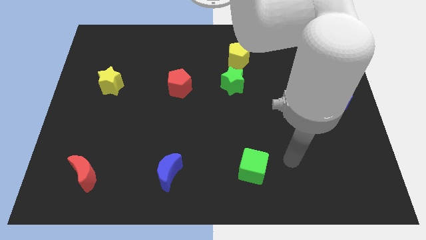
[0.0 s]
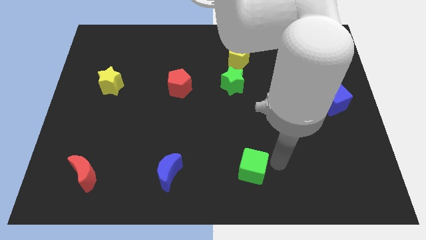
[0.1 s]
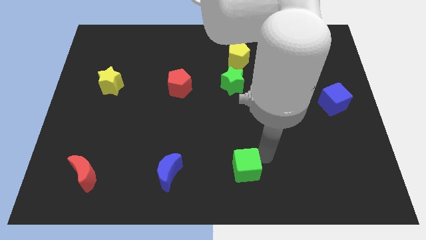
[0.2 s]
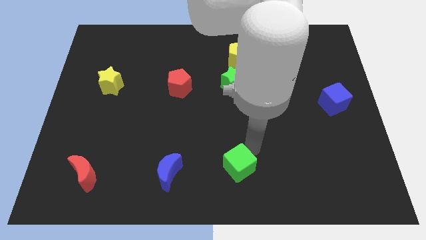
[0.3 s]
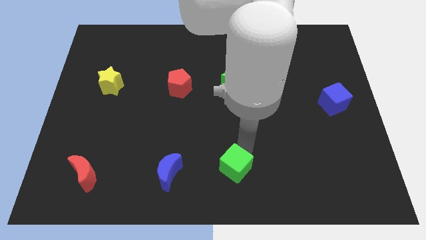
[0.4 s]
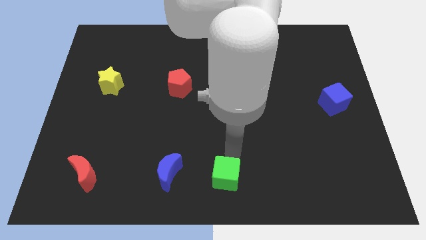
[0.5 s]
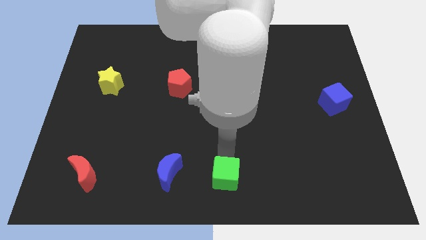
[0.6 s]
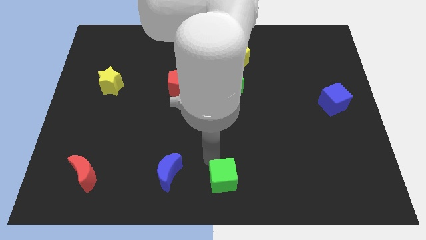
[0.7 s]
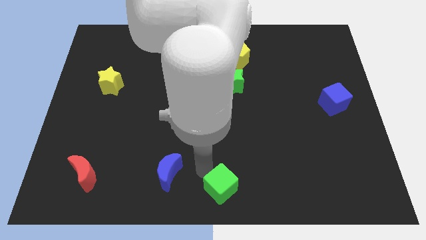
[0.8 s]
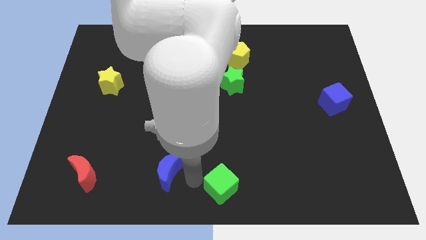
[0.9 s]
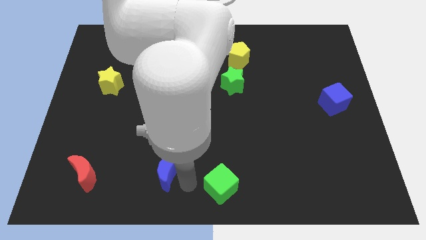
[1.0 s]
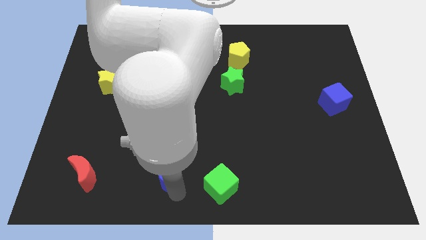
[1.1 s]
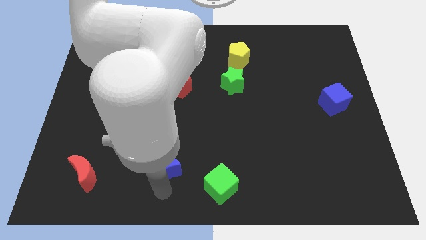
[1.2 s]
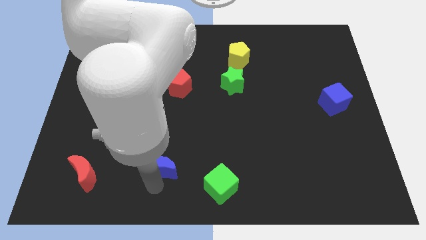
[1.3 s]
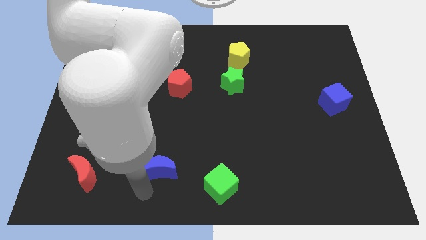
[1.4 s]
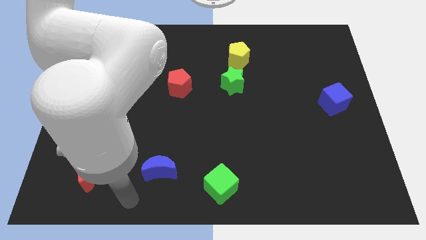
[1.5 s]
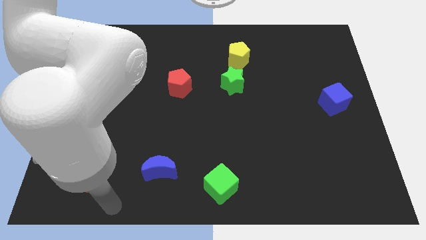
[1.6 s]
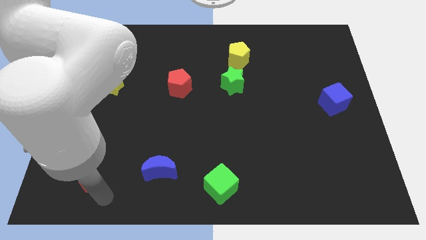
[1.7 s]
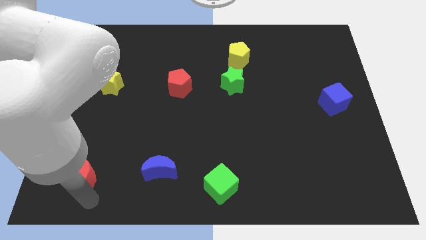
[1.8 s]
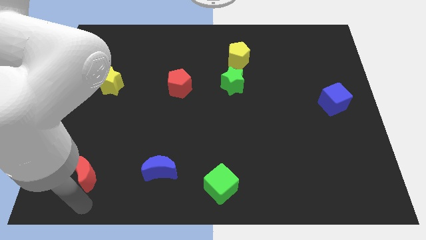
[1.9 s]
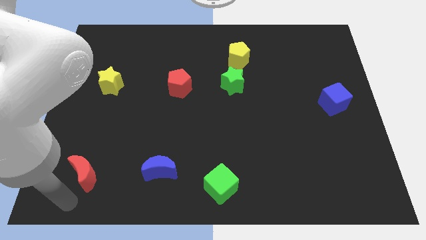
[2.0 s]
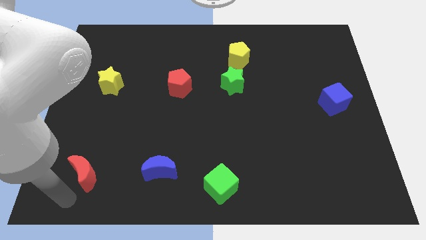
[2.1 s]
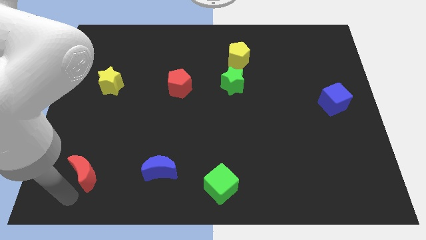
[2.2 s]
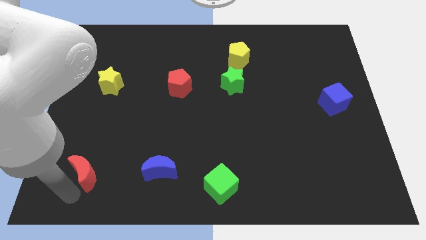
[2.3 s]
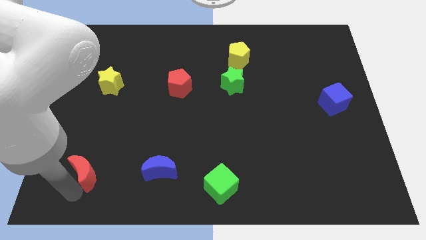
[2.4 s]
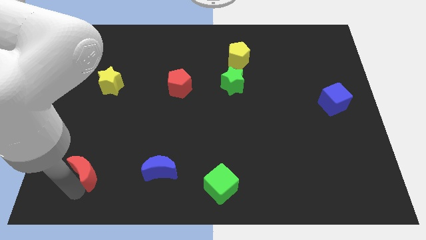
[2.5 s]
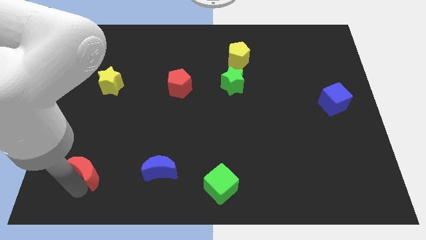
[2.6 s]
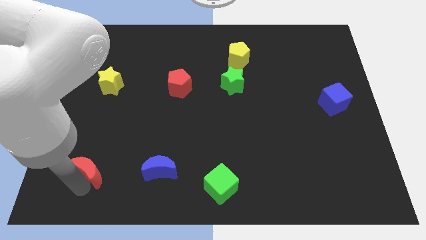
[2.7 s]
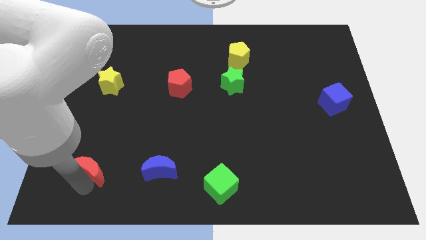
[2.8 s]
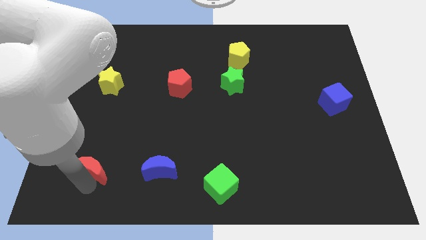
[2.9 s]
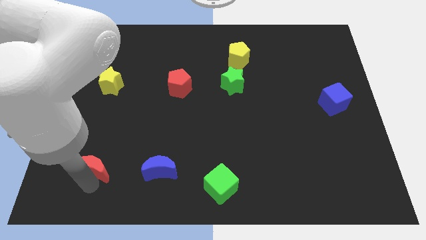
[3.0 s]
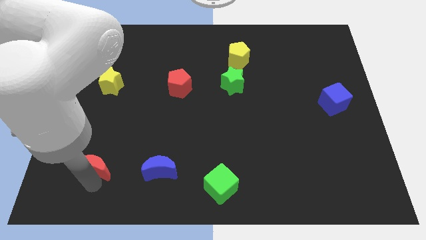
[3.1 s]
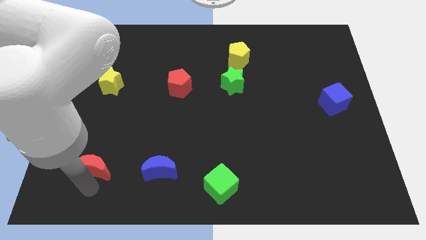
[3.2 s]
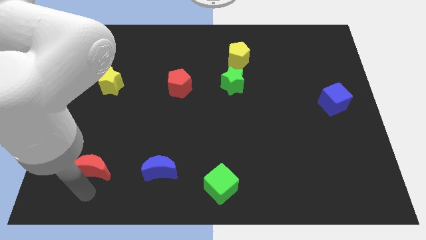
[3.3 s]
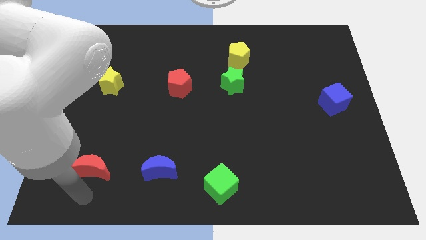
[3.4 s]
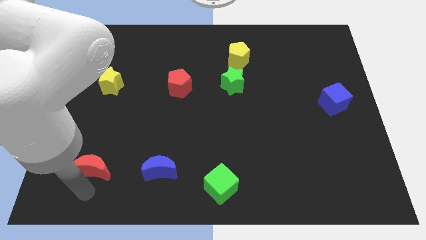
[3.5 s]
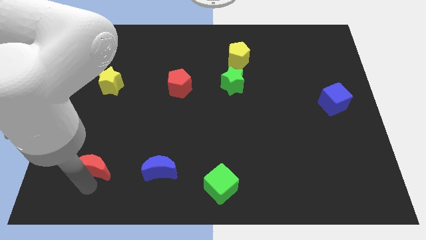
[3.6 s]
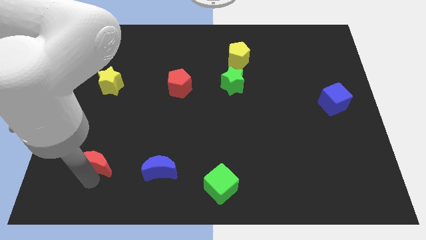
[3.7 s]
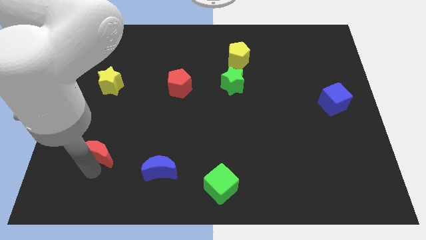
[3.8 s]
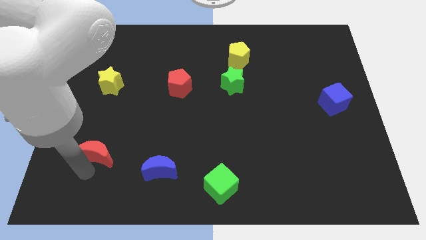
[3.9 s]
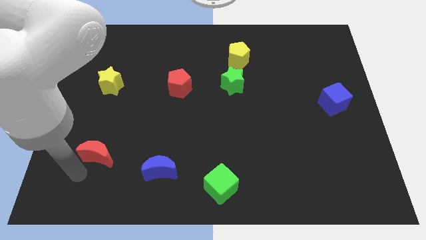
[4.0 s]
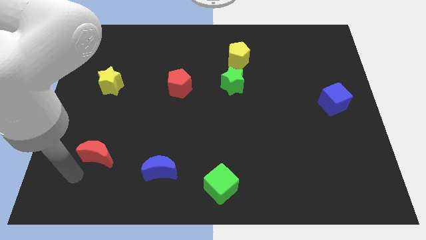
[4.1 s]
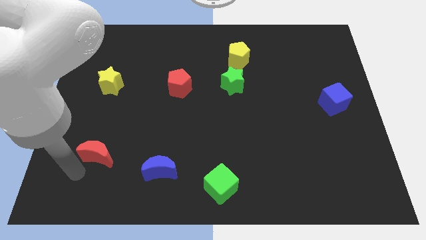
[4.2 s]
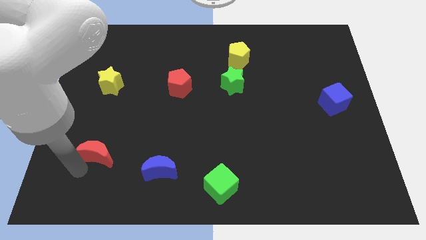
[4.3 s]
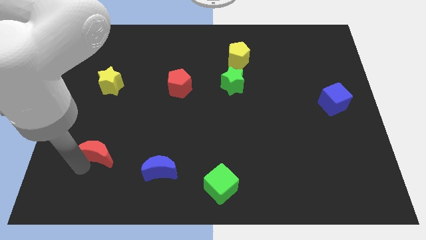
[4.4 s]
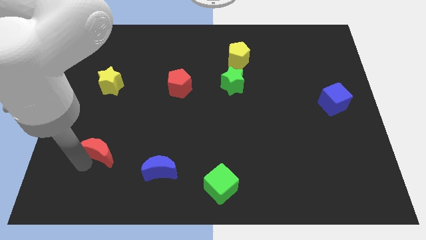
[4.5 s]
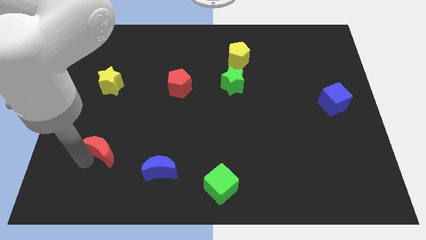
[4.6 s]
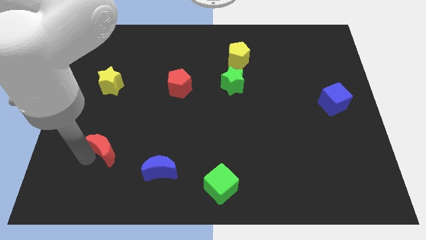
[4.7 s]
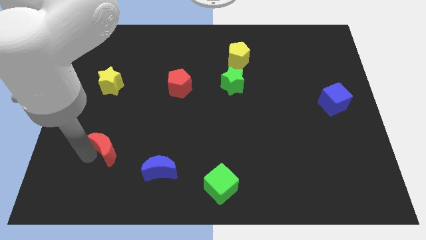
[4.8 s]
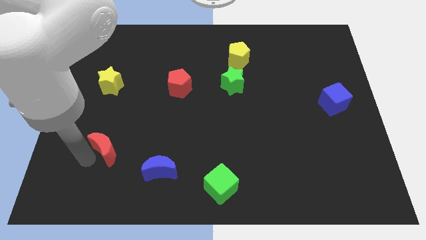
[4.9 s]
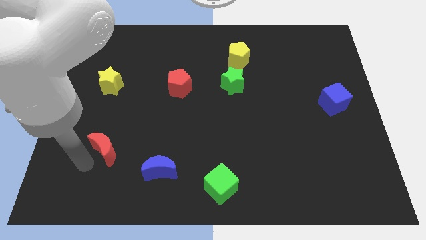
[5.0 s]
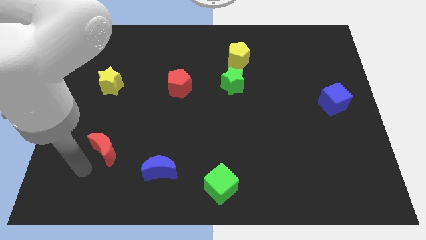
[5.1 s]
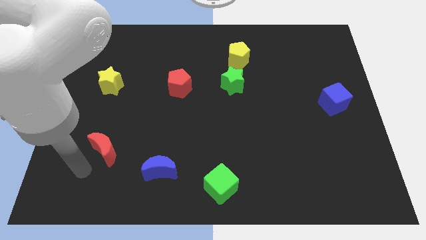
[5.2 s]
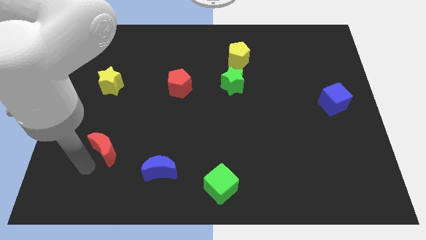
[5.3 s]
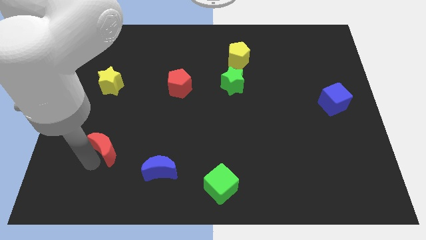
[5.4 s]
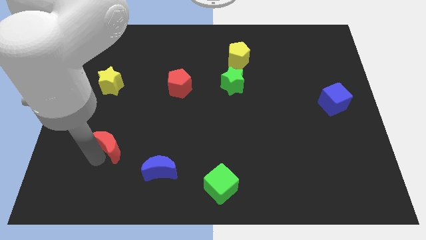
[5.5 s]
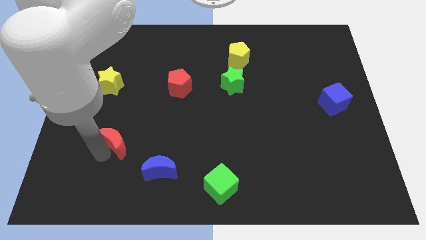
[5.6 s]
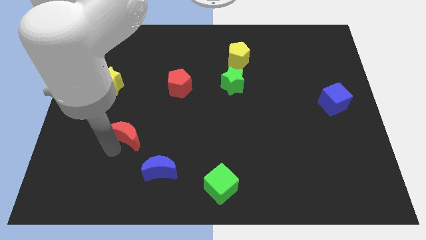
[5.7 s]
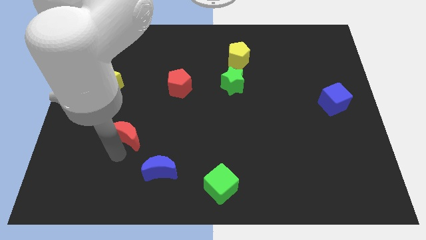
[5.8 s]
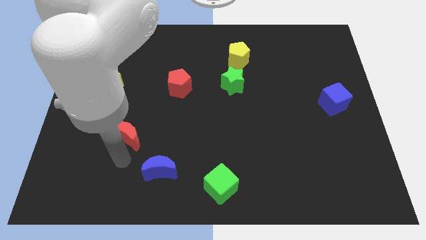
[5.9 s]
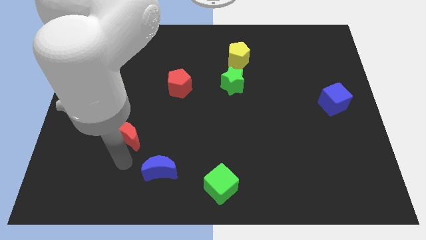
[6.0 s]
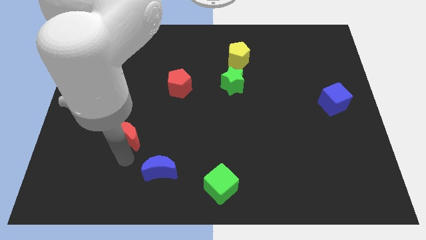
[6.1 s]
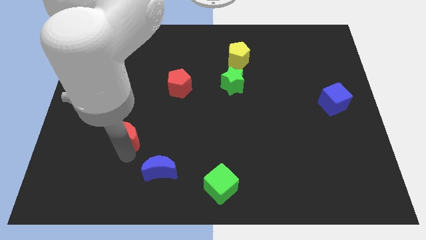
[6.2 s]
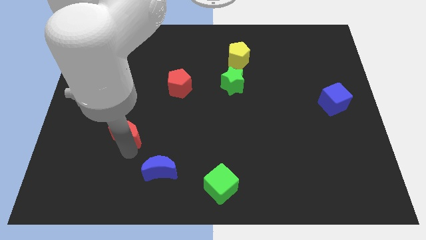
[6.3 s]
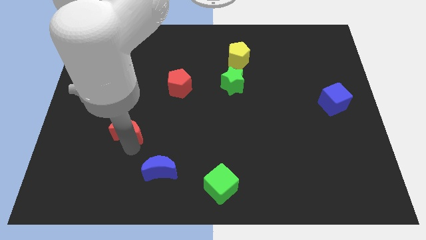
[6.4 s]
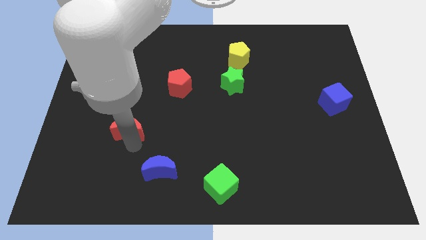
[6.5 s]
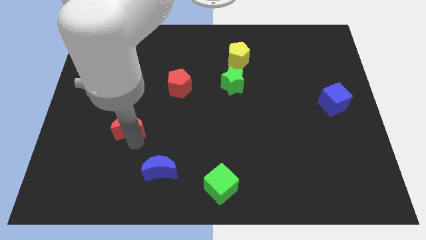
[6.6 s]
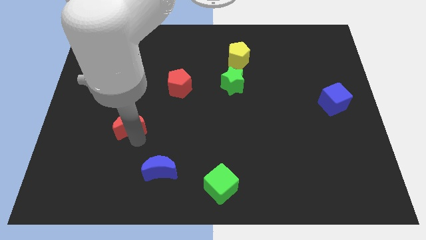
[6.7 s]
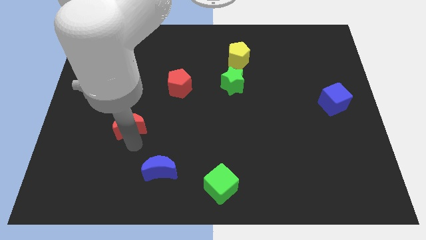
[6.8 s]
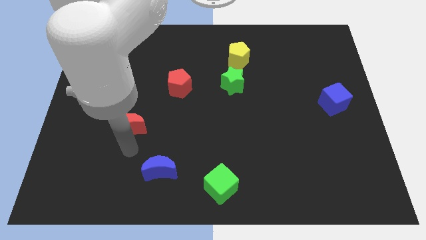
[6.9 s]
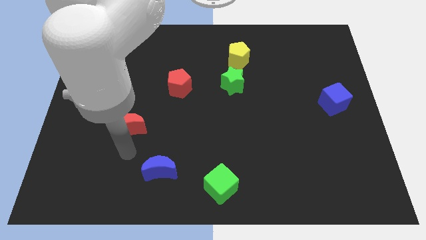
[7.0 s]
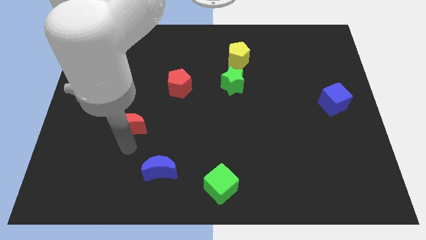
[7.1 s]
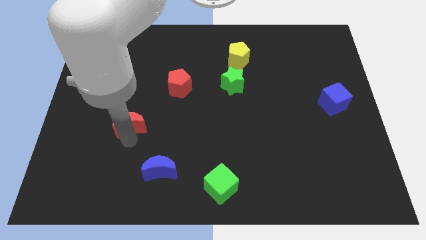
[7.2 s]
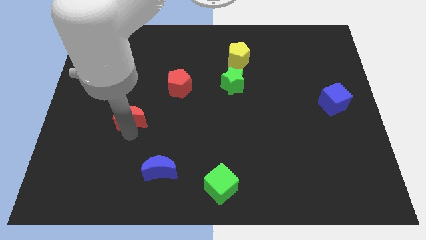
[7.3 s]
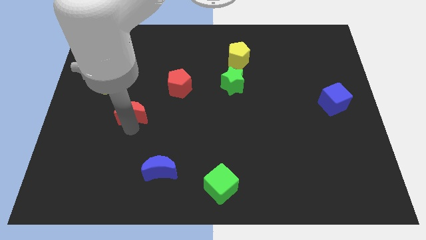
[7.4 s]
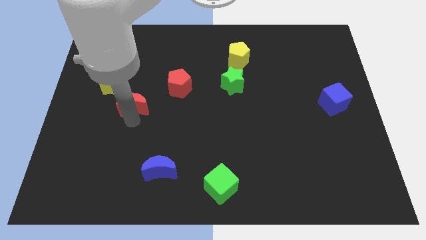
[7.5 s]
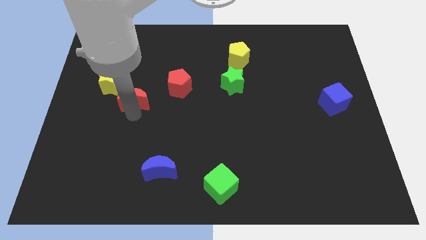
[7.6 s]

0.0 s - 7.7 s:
move the red moon to the left side of the red pentagon
